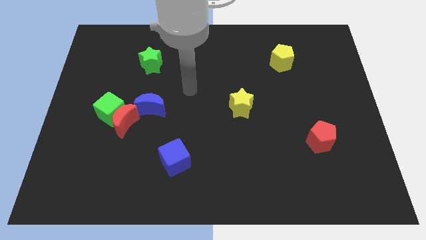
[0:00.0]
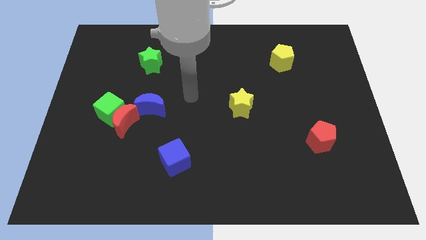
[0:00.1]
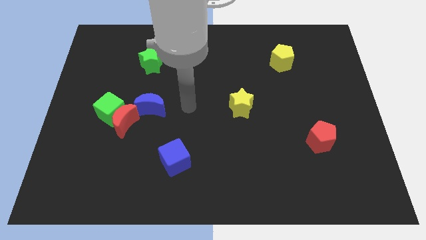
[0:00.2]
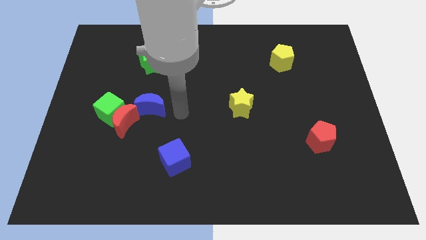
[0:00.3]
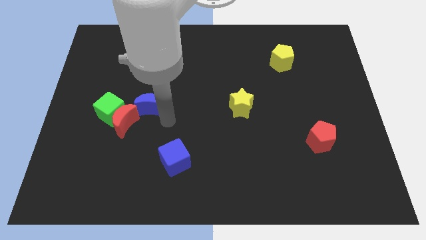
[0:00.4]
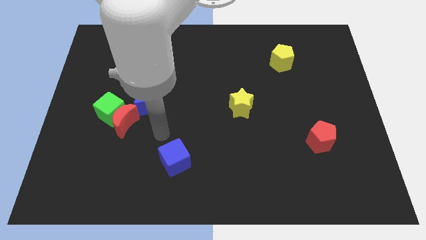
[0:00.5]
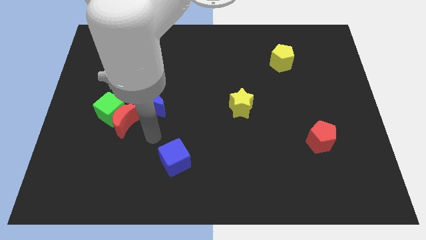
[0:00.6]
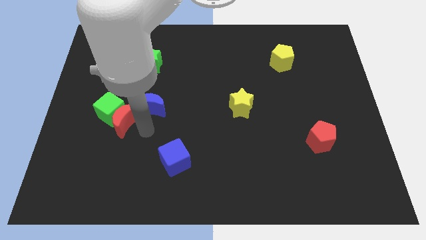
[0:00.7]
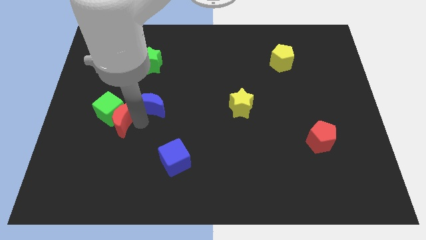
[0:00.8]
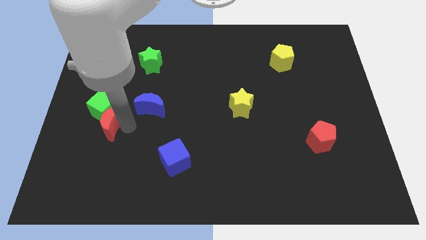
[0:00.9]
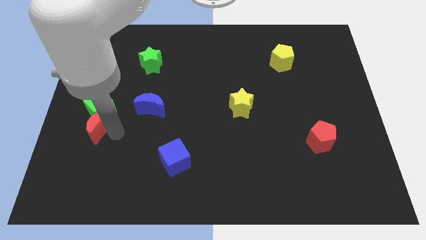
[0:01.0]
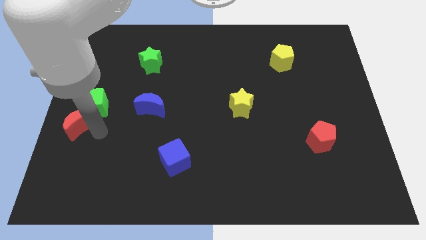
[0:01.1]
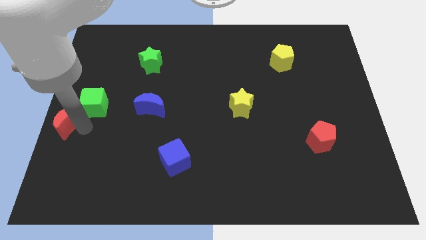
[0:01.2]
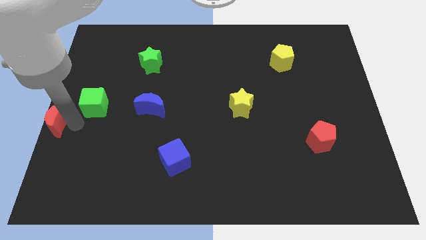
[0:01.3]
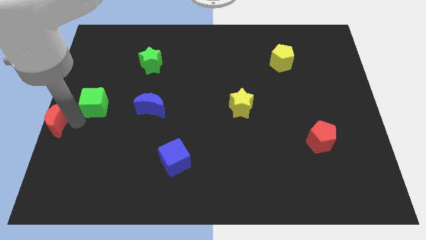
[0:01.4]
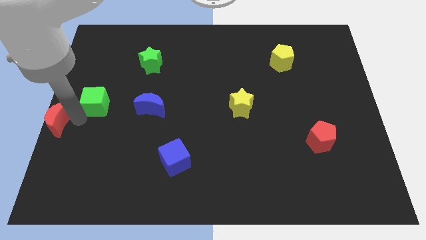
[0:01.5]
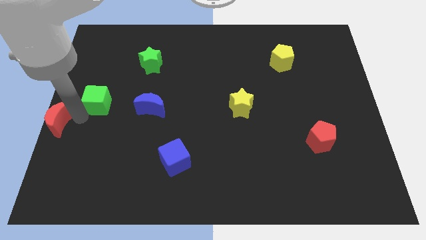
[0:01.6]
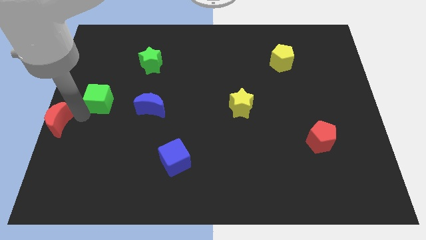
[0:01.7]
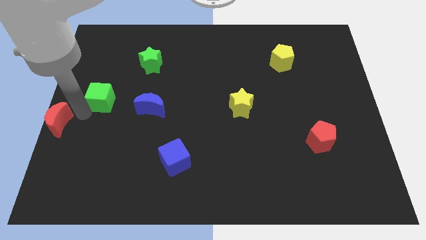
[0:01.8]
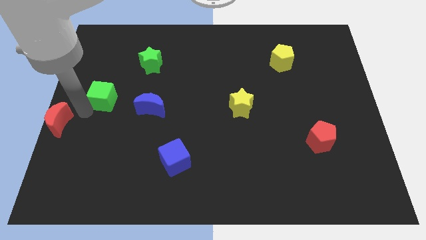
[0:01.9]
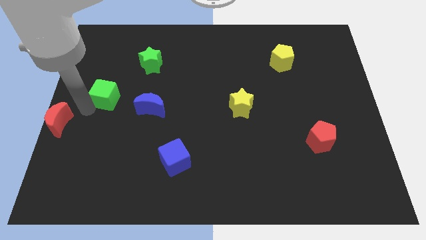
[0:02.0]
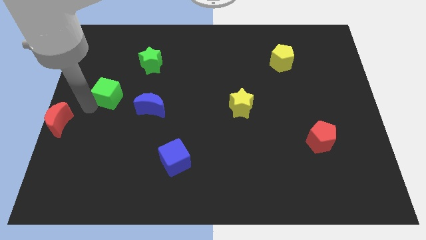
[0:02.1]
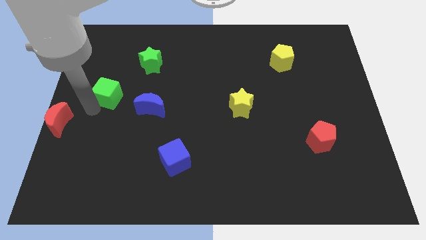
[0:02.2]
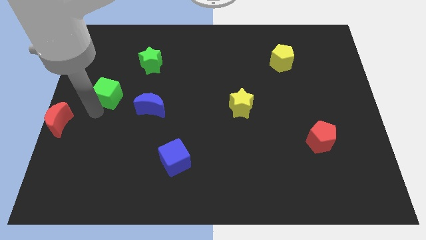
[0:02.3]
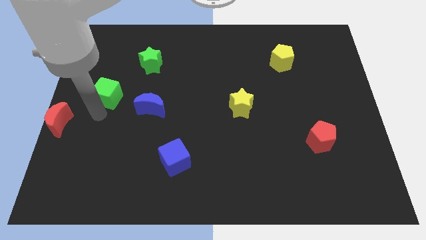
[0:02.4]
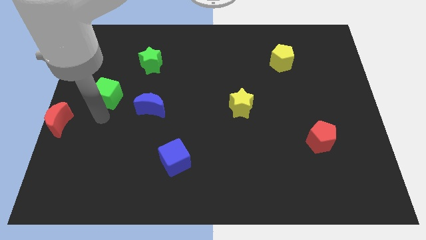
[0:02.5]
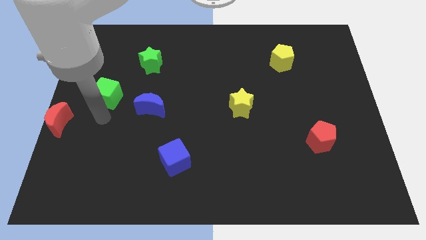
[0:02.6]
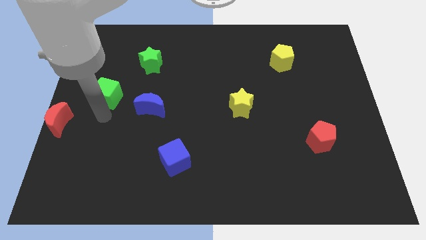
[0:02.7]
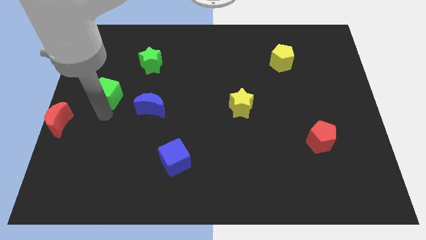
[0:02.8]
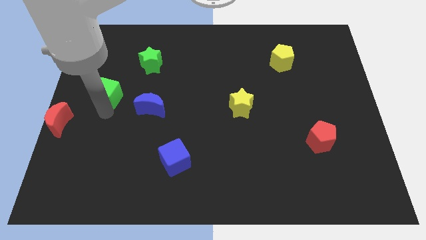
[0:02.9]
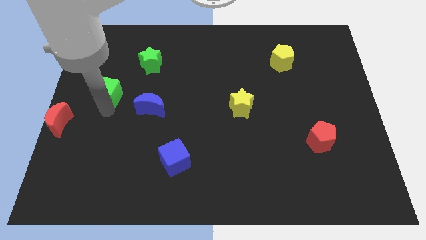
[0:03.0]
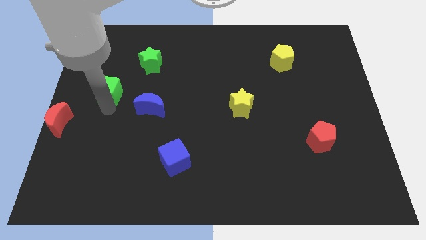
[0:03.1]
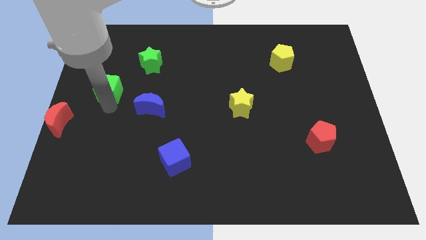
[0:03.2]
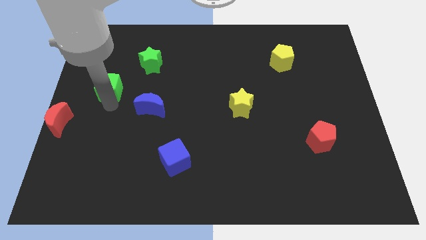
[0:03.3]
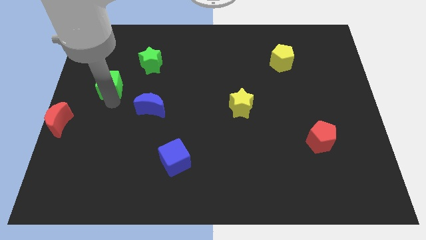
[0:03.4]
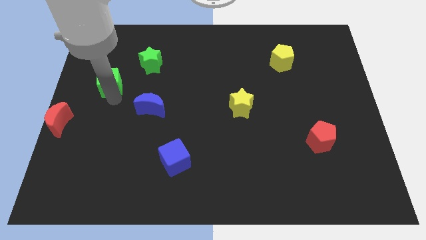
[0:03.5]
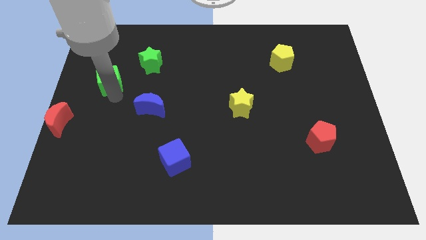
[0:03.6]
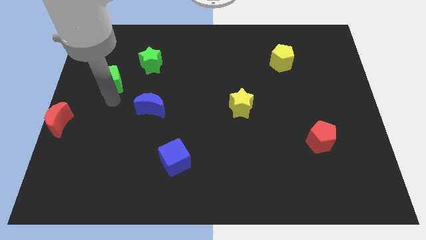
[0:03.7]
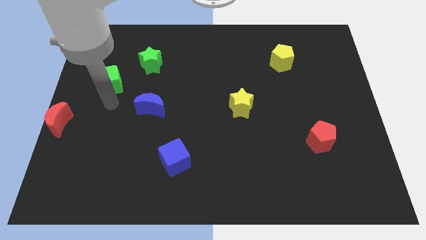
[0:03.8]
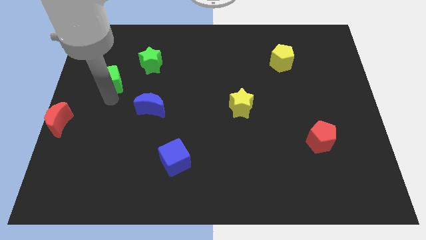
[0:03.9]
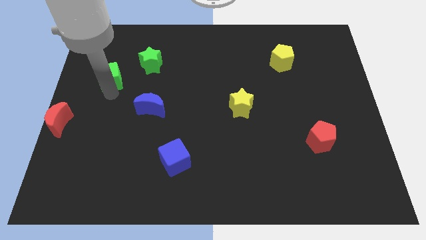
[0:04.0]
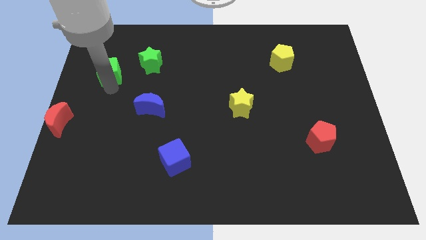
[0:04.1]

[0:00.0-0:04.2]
put the green cube just left of the green star

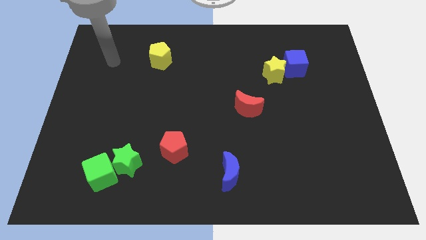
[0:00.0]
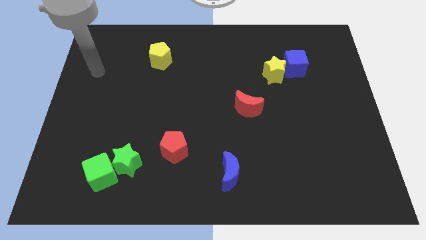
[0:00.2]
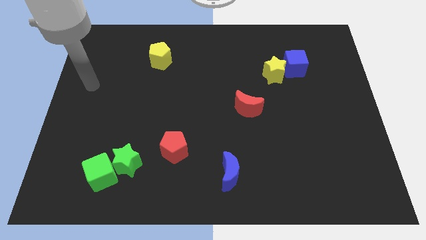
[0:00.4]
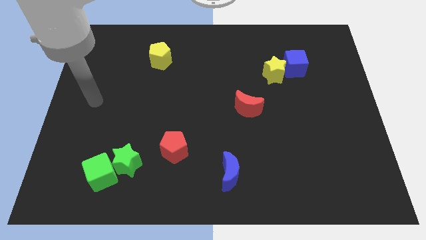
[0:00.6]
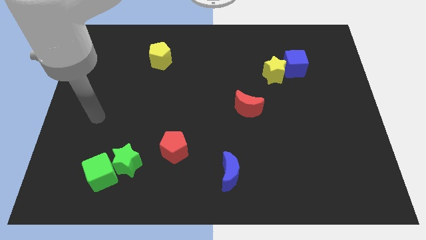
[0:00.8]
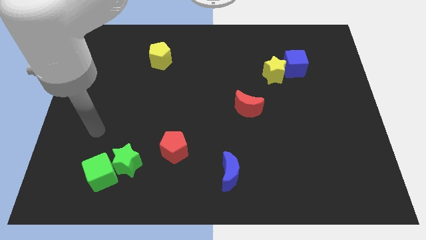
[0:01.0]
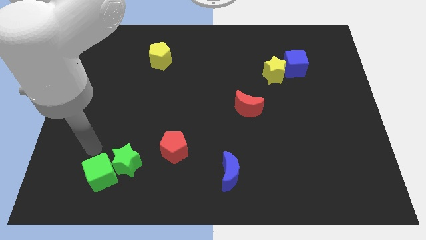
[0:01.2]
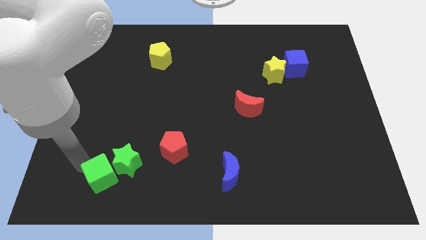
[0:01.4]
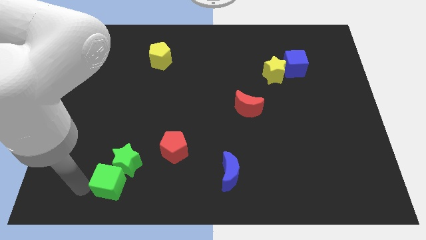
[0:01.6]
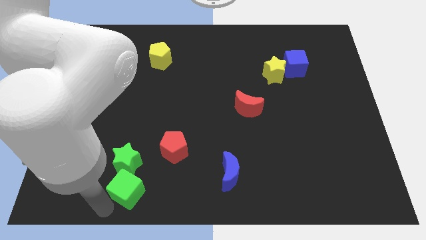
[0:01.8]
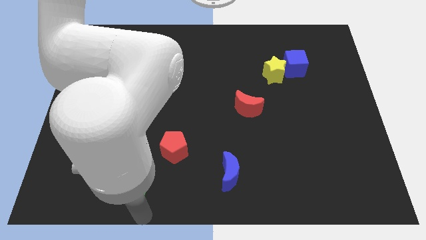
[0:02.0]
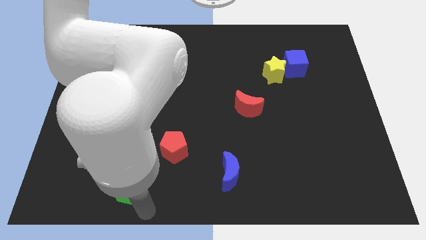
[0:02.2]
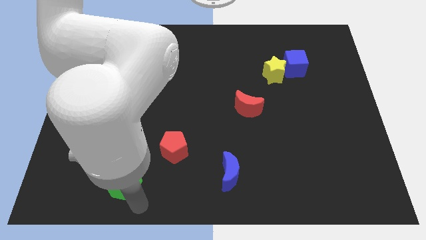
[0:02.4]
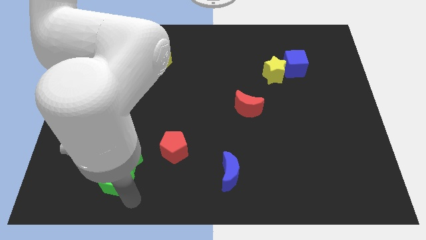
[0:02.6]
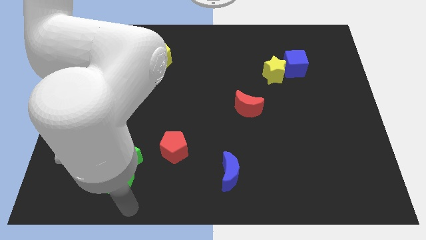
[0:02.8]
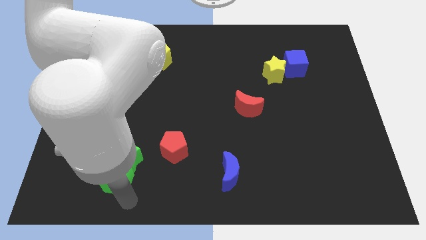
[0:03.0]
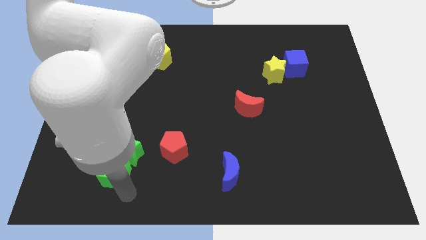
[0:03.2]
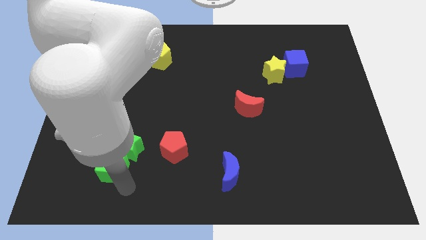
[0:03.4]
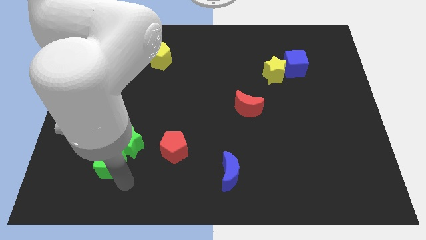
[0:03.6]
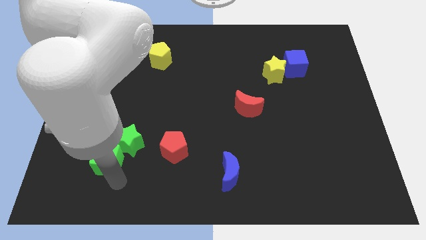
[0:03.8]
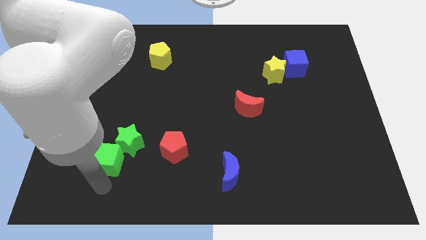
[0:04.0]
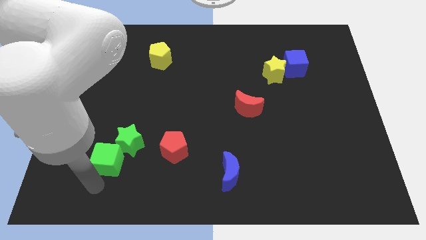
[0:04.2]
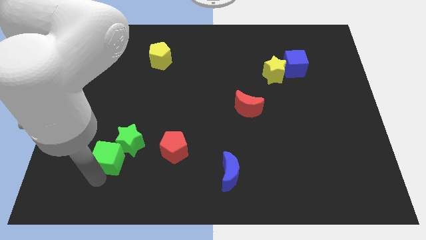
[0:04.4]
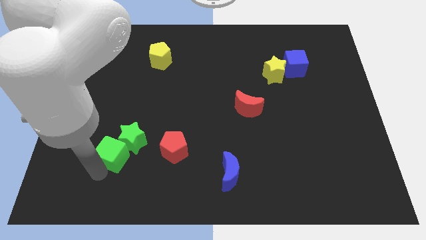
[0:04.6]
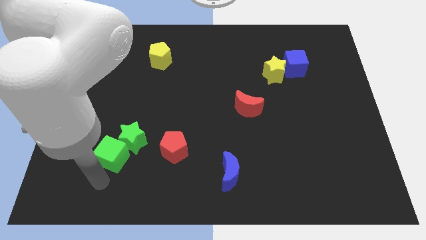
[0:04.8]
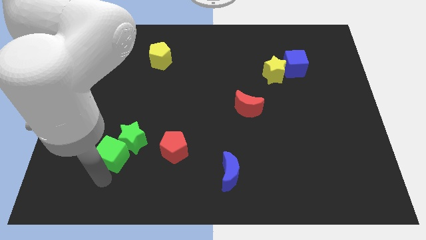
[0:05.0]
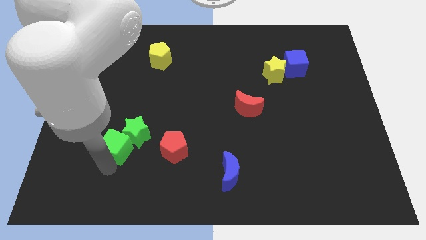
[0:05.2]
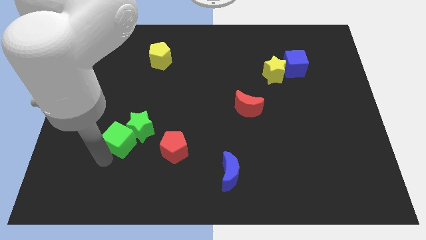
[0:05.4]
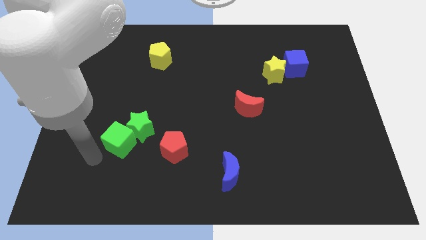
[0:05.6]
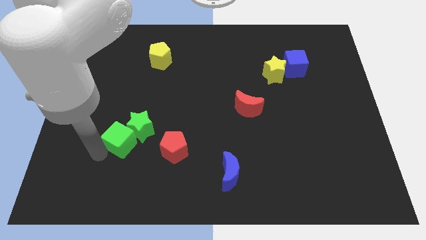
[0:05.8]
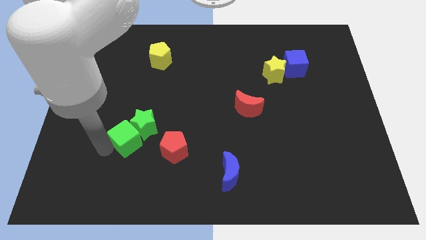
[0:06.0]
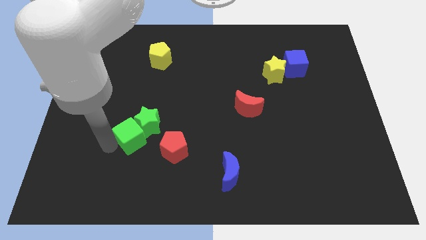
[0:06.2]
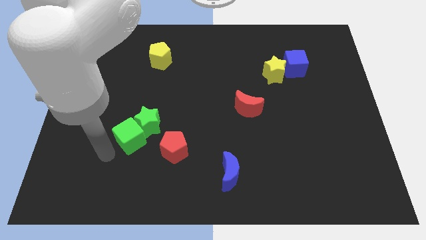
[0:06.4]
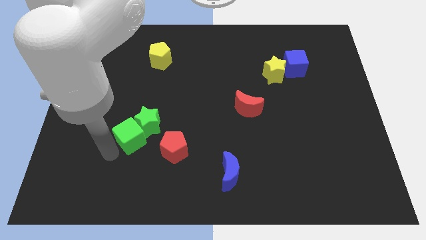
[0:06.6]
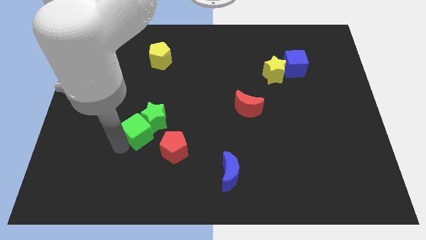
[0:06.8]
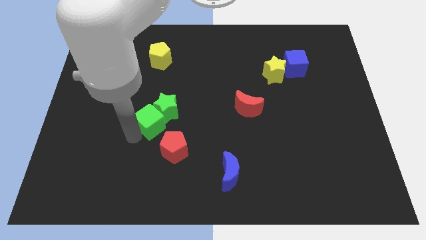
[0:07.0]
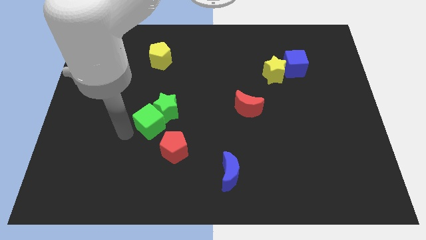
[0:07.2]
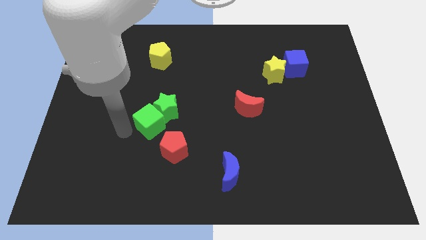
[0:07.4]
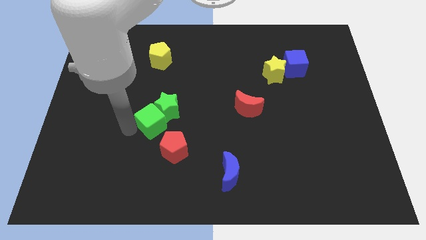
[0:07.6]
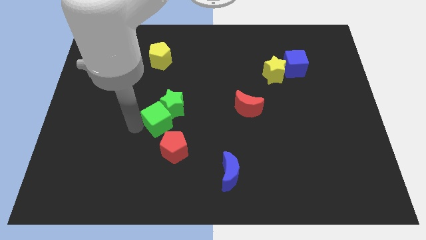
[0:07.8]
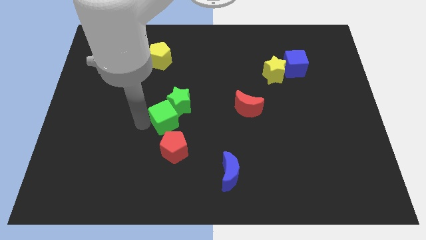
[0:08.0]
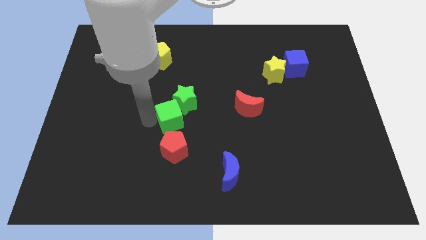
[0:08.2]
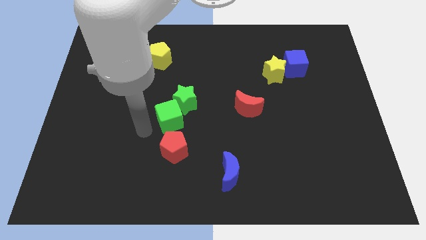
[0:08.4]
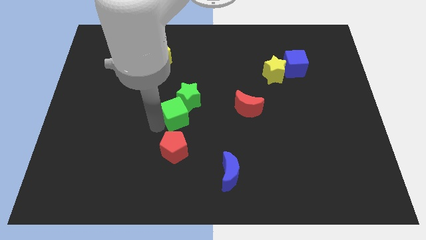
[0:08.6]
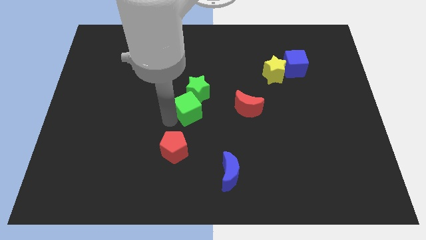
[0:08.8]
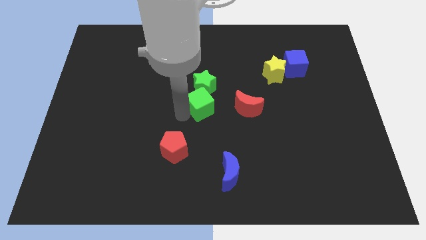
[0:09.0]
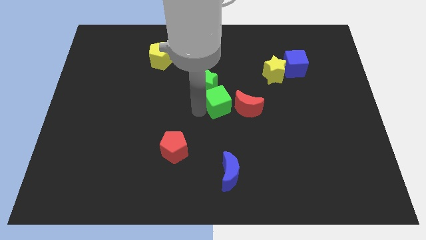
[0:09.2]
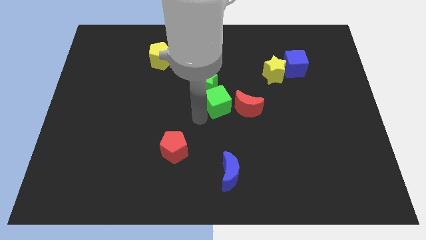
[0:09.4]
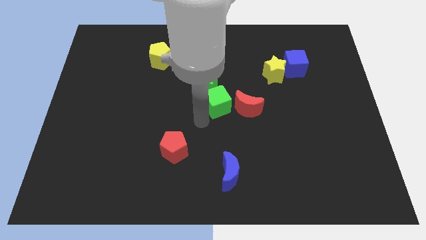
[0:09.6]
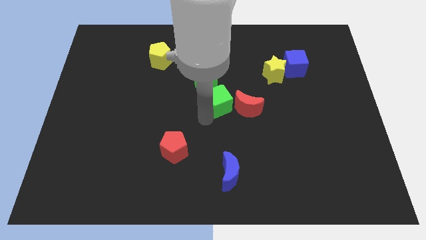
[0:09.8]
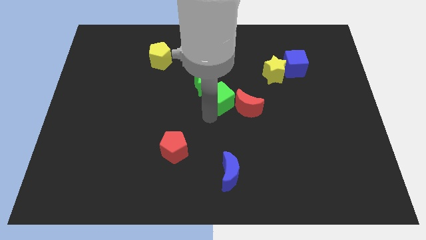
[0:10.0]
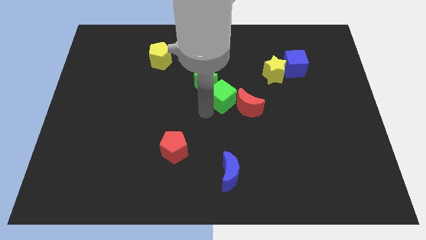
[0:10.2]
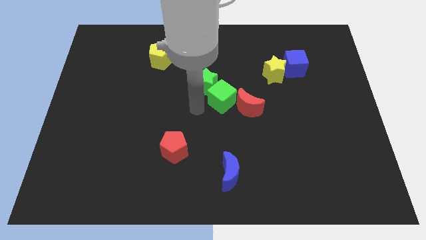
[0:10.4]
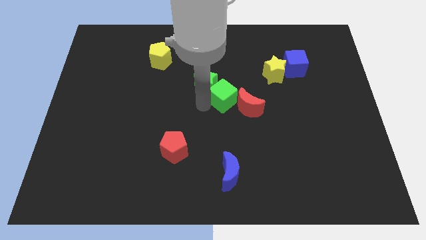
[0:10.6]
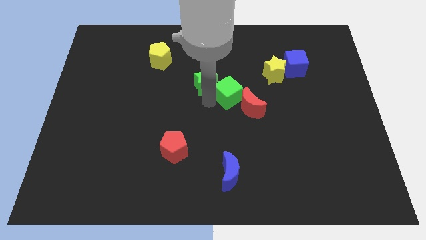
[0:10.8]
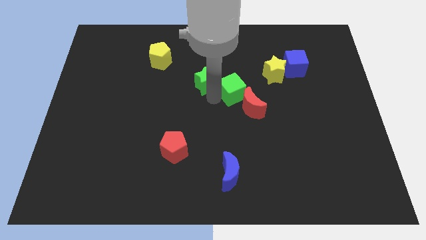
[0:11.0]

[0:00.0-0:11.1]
move the green cube to the bottom left side of the yellow star
